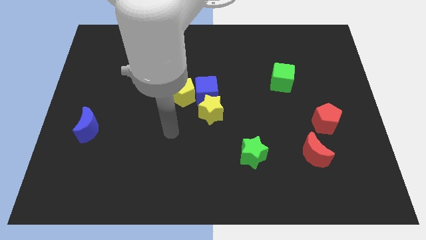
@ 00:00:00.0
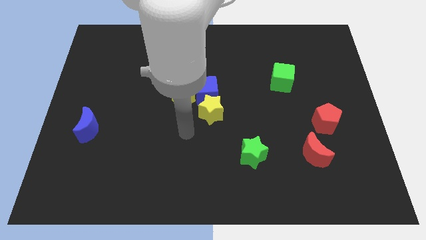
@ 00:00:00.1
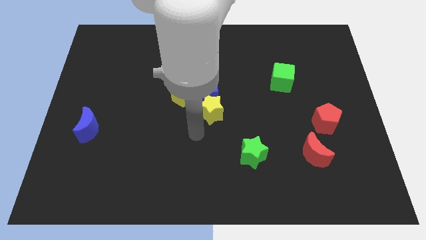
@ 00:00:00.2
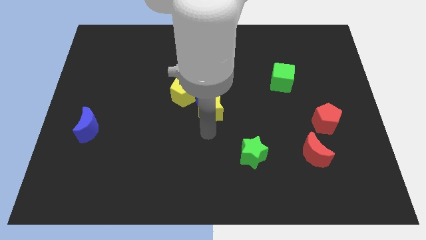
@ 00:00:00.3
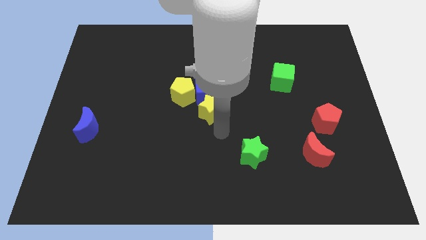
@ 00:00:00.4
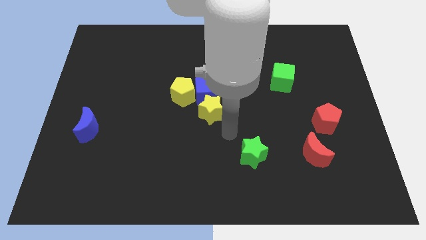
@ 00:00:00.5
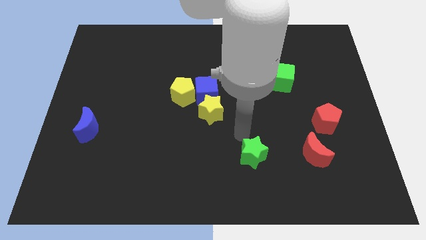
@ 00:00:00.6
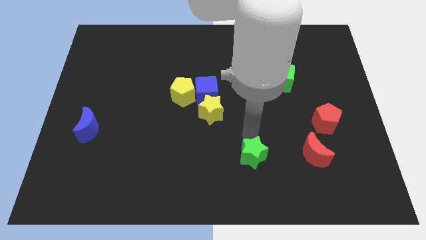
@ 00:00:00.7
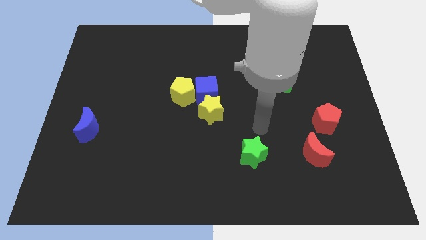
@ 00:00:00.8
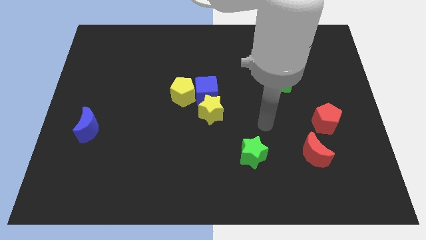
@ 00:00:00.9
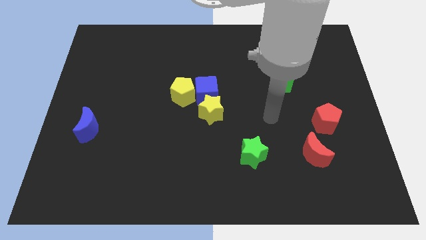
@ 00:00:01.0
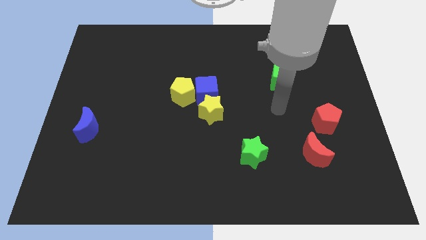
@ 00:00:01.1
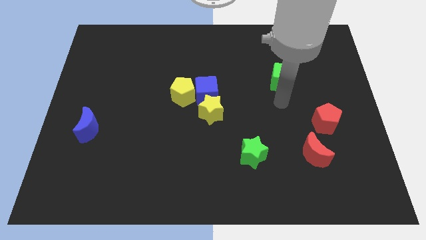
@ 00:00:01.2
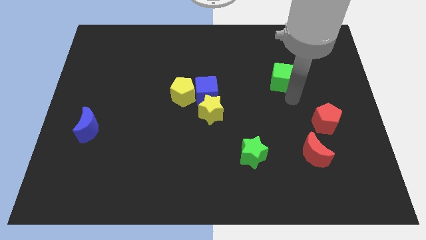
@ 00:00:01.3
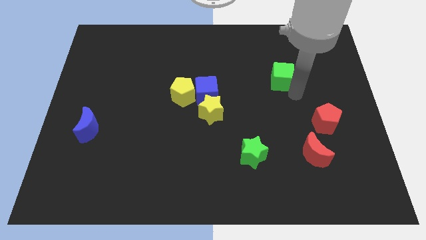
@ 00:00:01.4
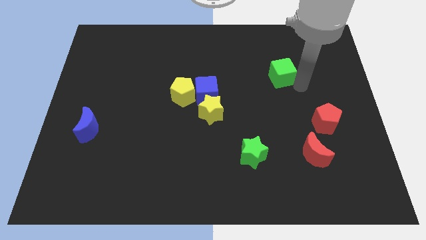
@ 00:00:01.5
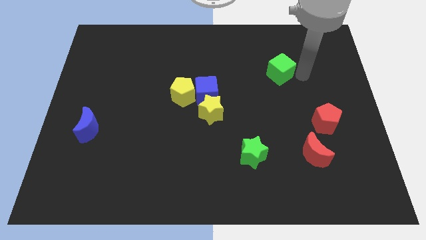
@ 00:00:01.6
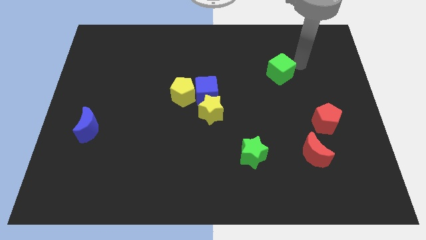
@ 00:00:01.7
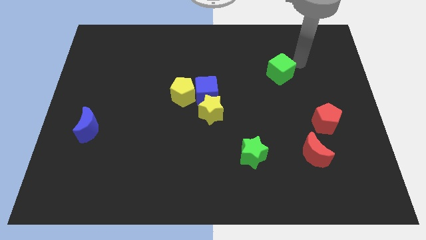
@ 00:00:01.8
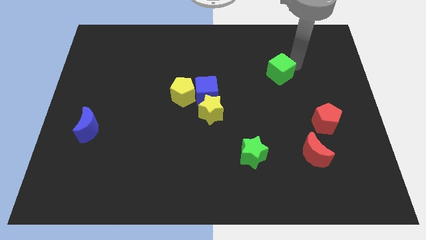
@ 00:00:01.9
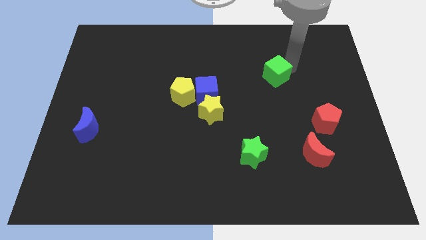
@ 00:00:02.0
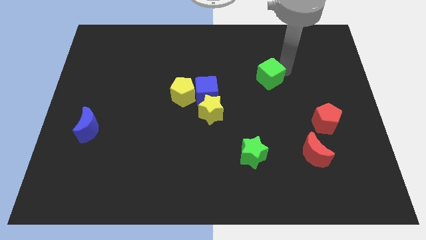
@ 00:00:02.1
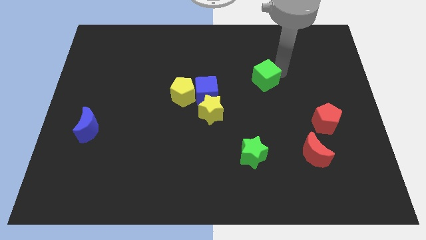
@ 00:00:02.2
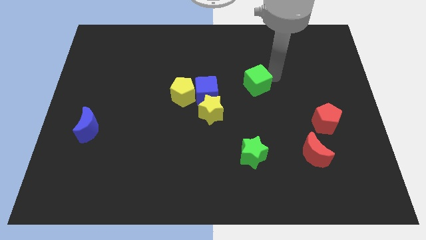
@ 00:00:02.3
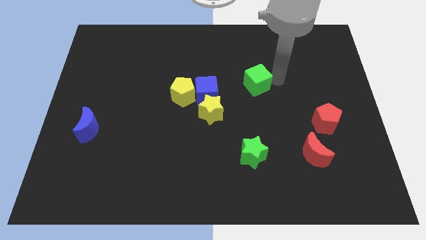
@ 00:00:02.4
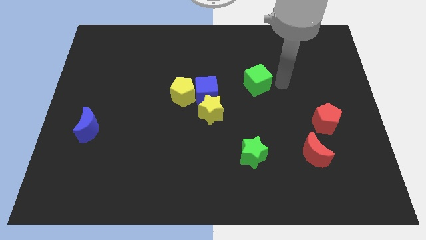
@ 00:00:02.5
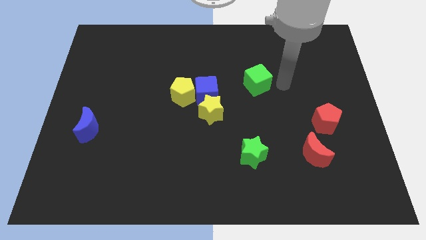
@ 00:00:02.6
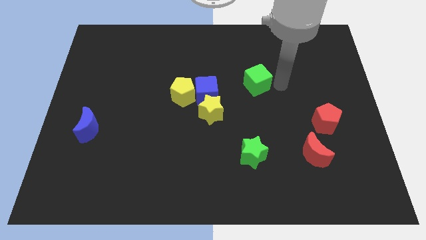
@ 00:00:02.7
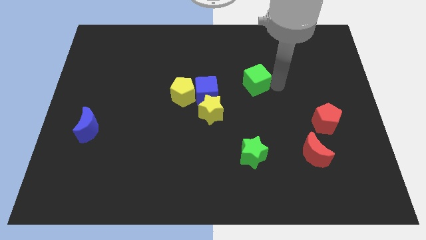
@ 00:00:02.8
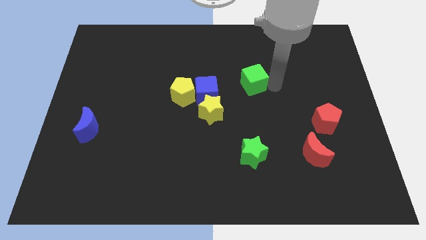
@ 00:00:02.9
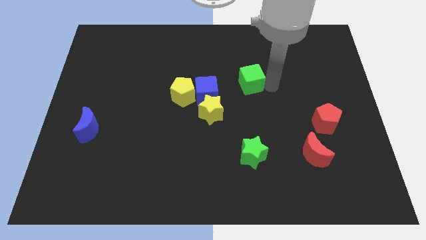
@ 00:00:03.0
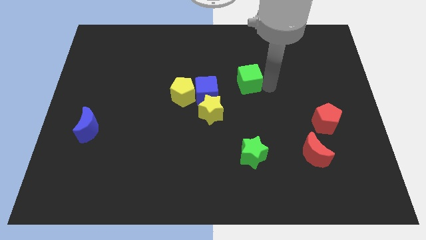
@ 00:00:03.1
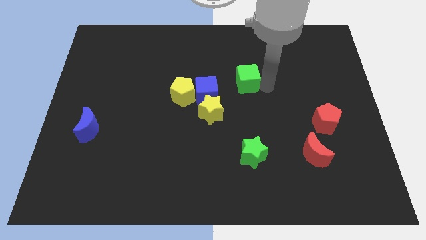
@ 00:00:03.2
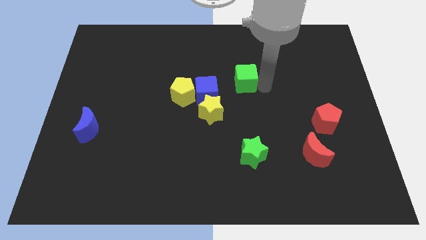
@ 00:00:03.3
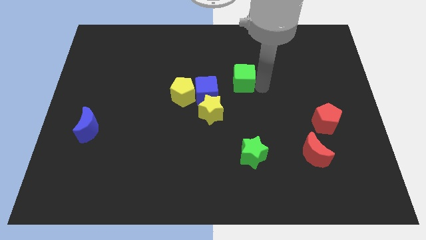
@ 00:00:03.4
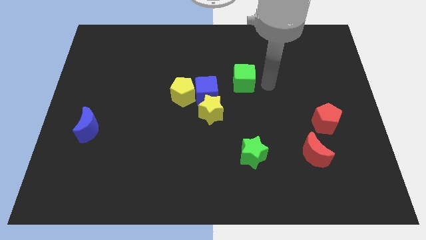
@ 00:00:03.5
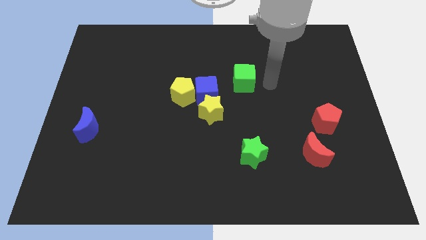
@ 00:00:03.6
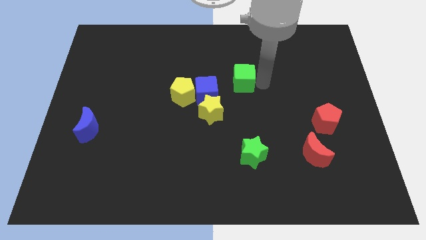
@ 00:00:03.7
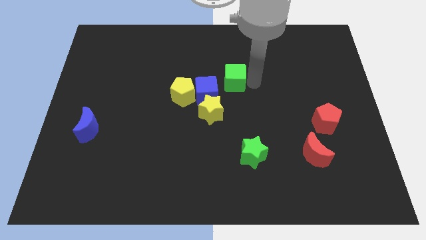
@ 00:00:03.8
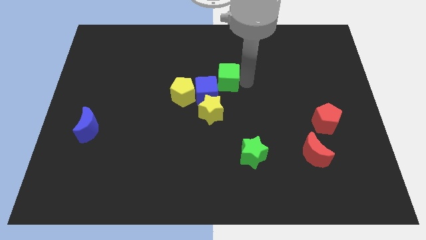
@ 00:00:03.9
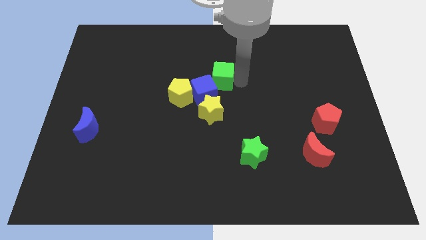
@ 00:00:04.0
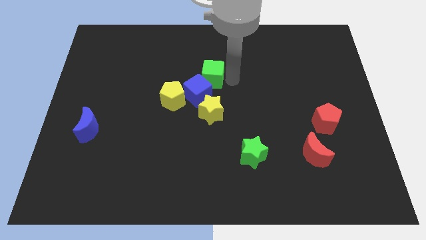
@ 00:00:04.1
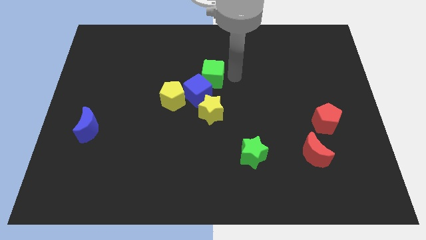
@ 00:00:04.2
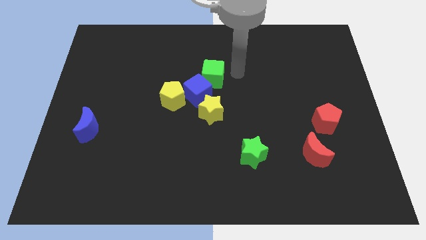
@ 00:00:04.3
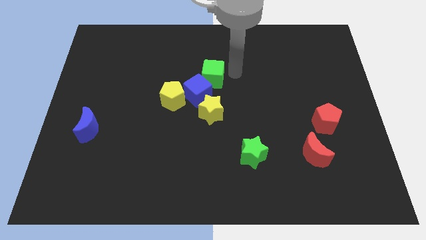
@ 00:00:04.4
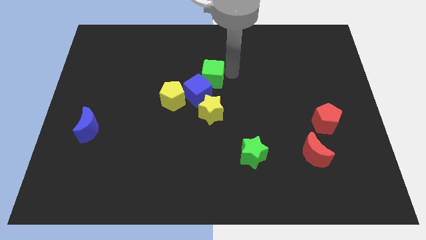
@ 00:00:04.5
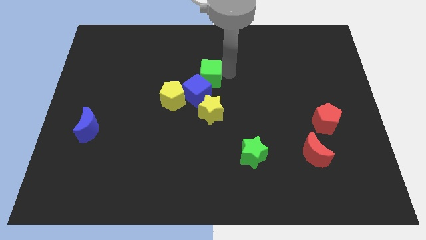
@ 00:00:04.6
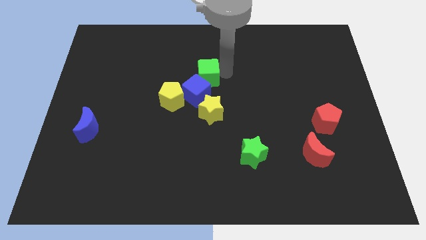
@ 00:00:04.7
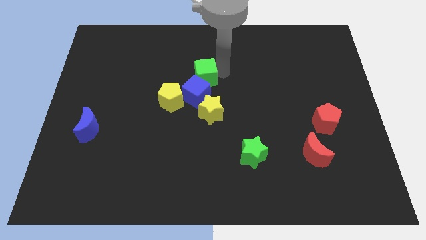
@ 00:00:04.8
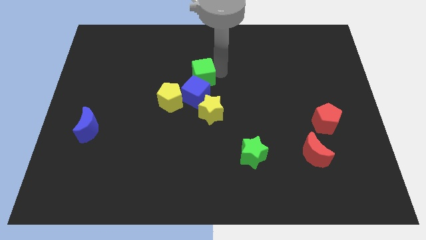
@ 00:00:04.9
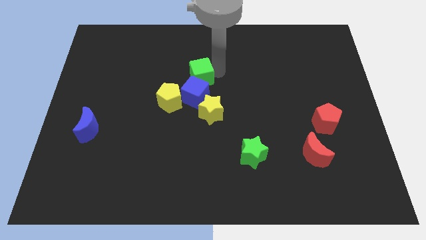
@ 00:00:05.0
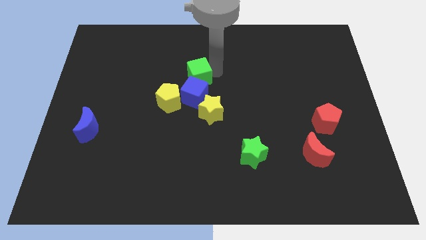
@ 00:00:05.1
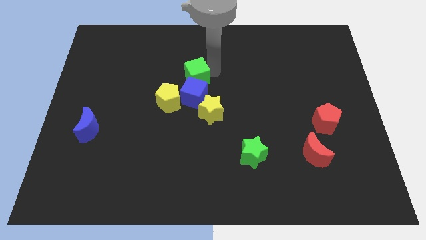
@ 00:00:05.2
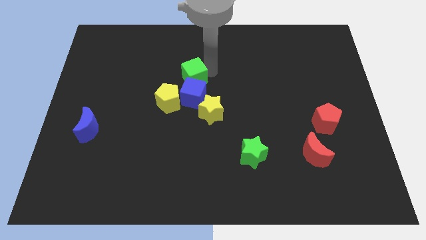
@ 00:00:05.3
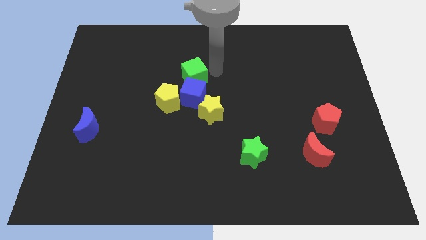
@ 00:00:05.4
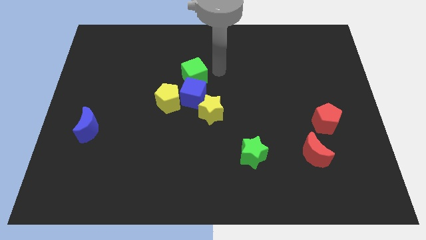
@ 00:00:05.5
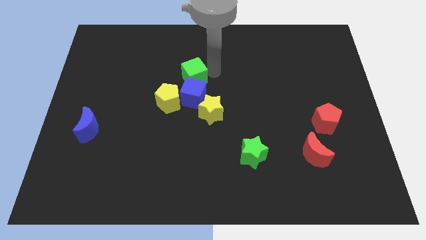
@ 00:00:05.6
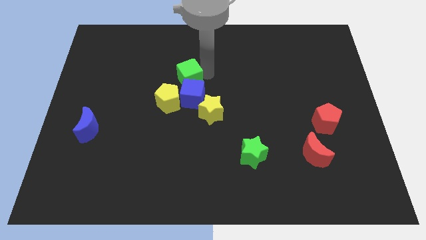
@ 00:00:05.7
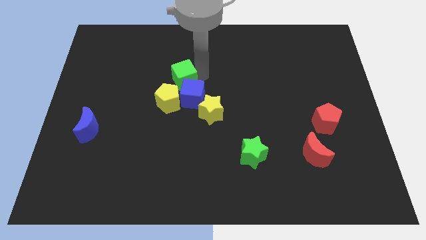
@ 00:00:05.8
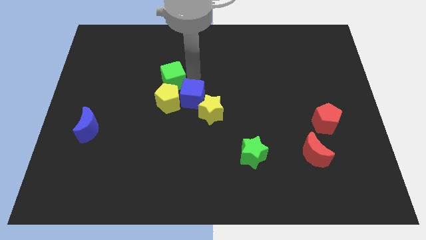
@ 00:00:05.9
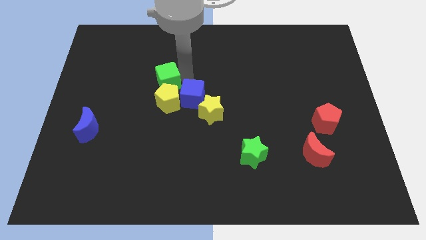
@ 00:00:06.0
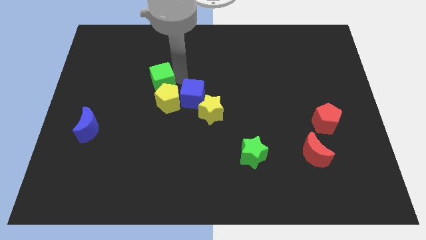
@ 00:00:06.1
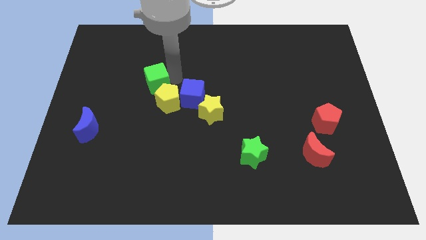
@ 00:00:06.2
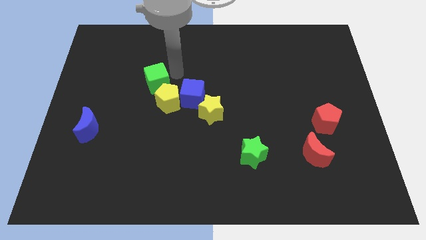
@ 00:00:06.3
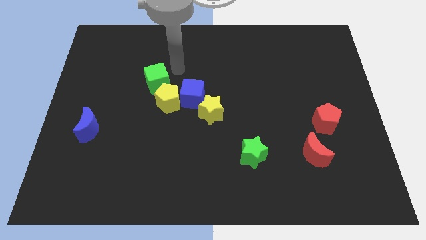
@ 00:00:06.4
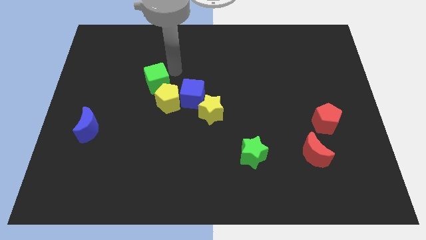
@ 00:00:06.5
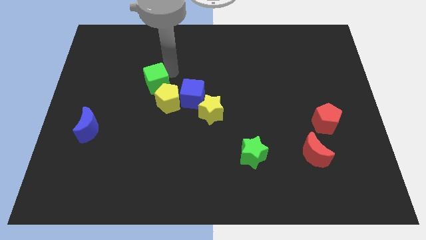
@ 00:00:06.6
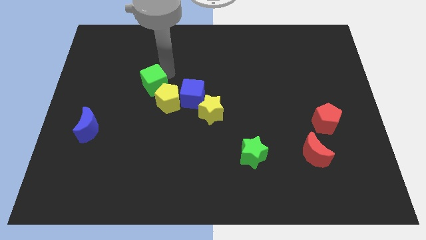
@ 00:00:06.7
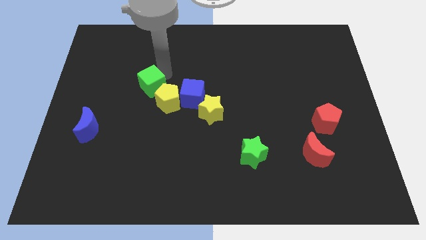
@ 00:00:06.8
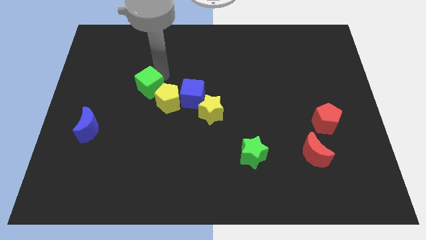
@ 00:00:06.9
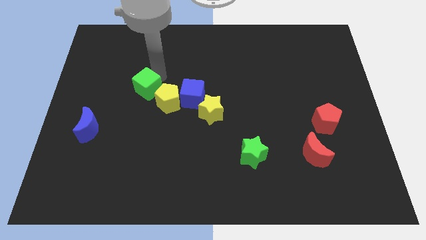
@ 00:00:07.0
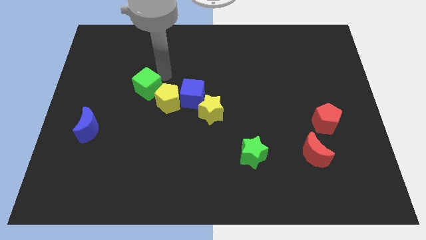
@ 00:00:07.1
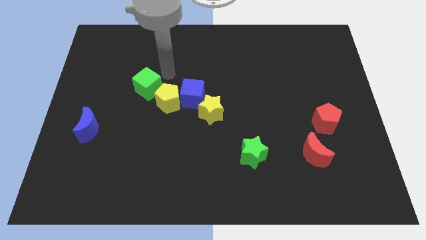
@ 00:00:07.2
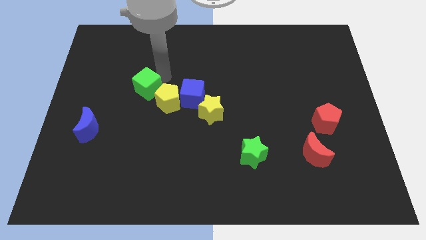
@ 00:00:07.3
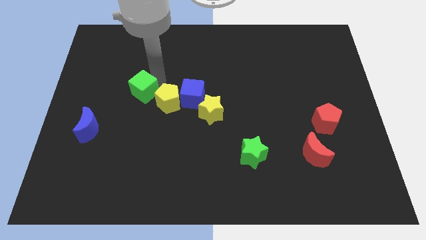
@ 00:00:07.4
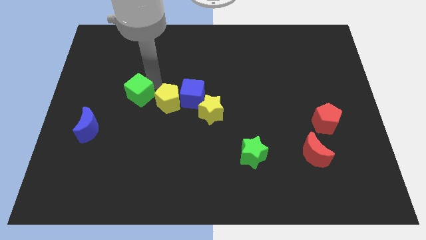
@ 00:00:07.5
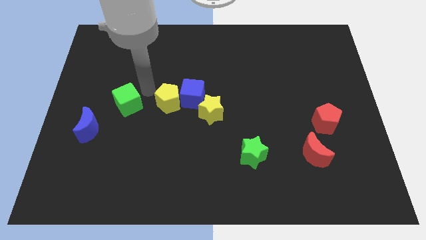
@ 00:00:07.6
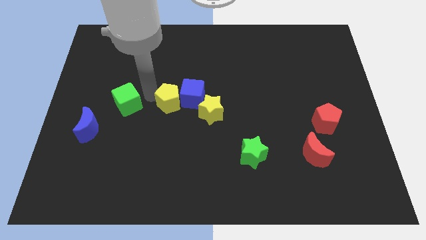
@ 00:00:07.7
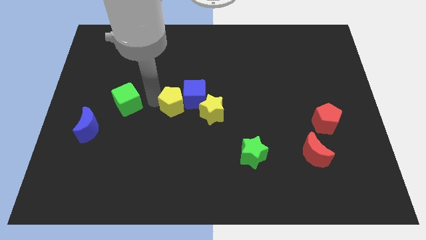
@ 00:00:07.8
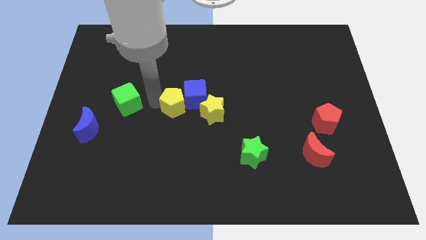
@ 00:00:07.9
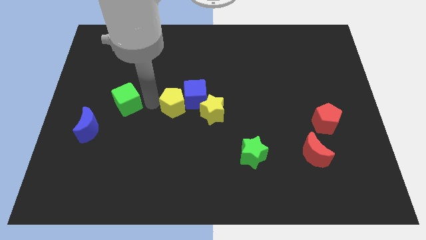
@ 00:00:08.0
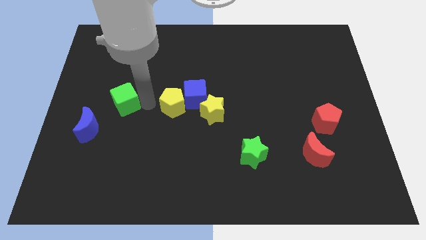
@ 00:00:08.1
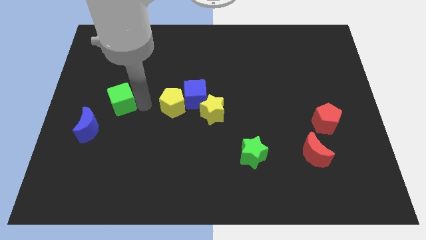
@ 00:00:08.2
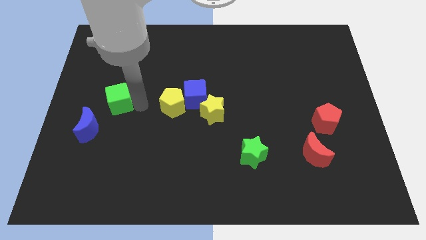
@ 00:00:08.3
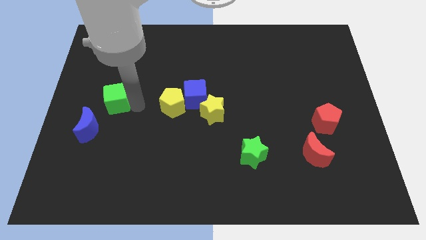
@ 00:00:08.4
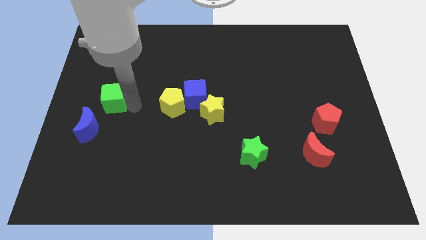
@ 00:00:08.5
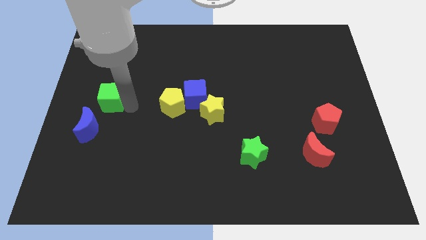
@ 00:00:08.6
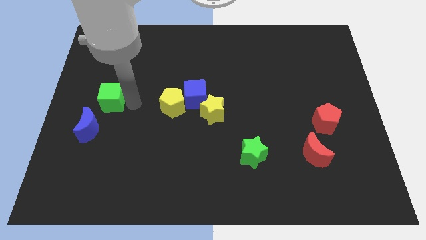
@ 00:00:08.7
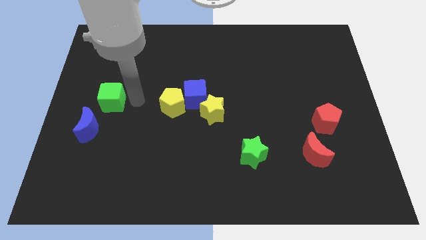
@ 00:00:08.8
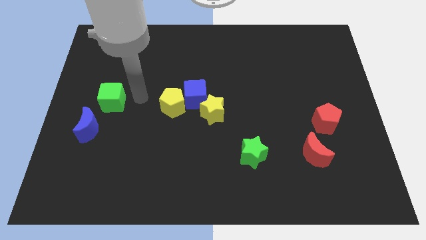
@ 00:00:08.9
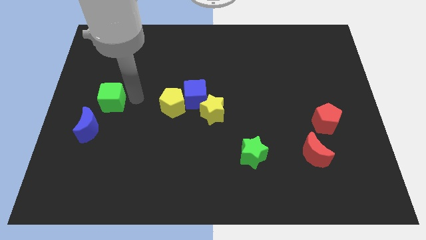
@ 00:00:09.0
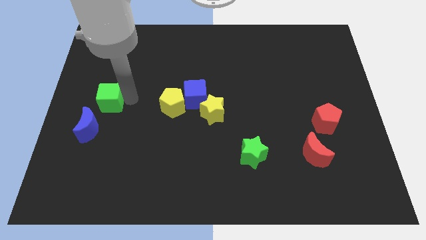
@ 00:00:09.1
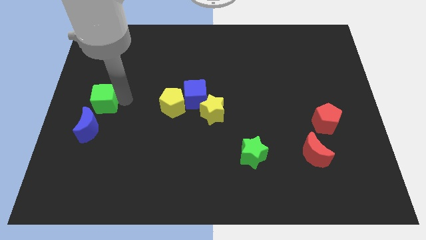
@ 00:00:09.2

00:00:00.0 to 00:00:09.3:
push the green cube to the left side of the board
